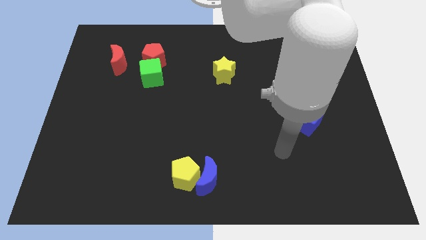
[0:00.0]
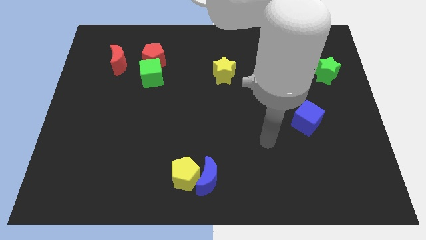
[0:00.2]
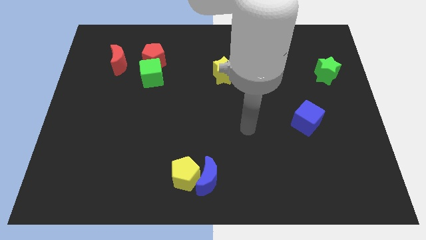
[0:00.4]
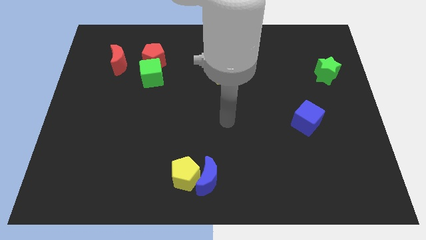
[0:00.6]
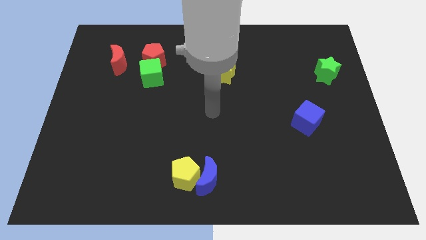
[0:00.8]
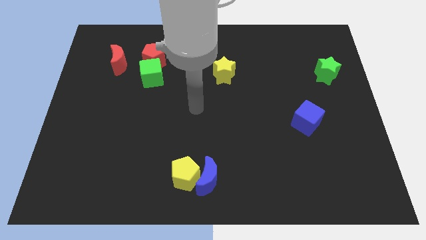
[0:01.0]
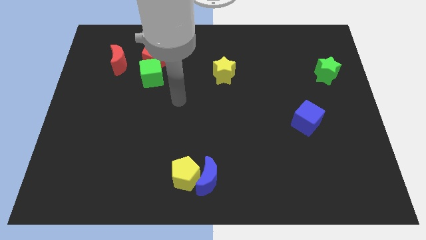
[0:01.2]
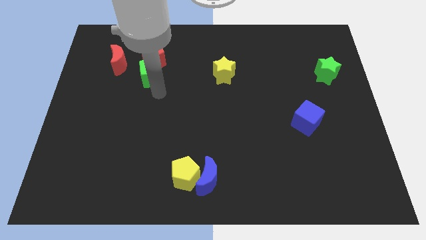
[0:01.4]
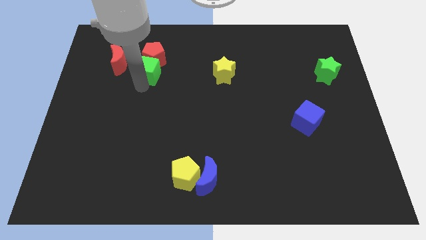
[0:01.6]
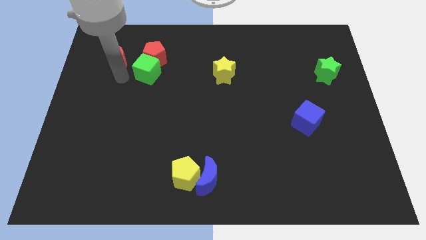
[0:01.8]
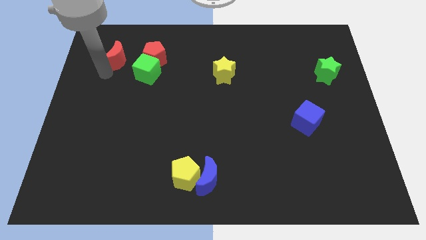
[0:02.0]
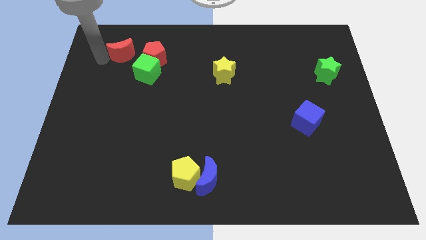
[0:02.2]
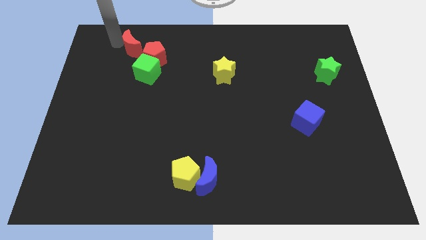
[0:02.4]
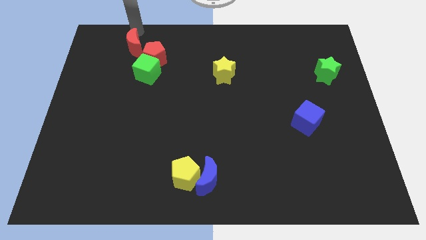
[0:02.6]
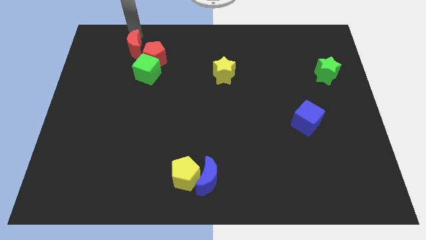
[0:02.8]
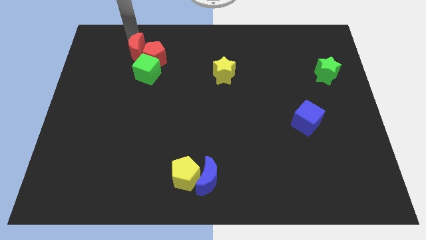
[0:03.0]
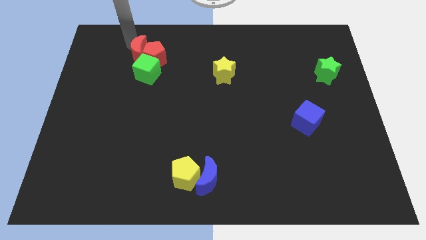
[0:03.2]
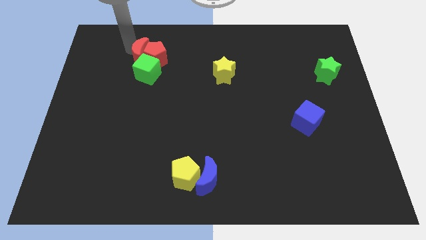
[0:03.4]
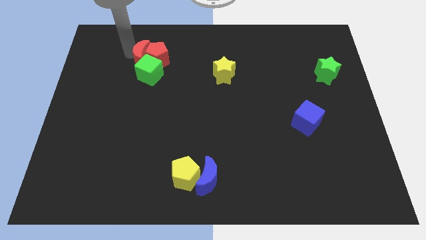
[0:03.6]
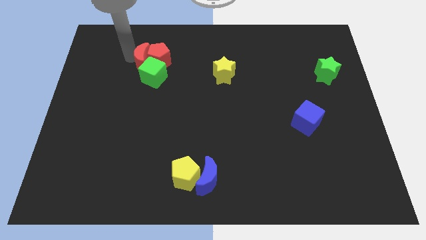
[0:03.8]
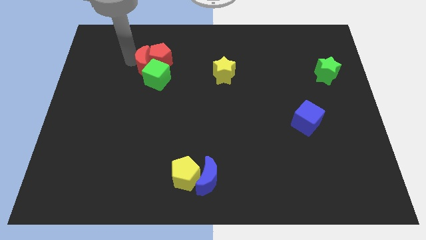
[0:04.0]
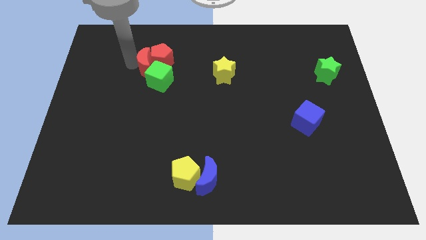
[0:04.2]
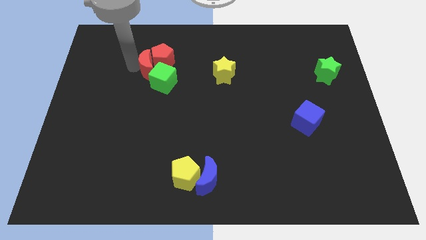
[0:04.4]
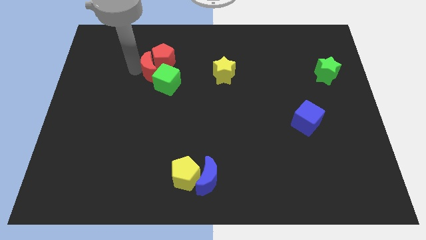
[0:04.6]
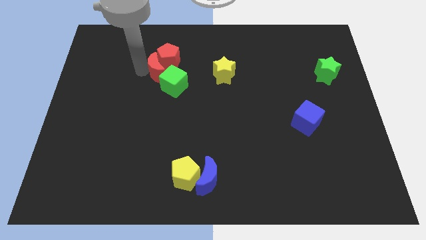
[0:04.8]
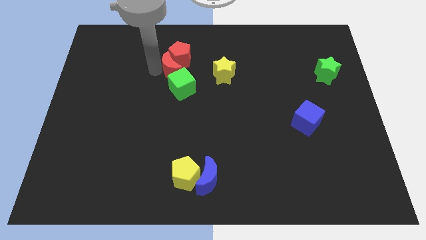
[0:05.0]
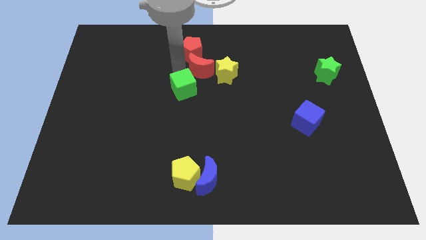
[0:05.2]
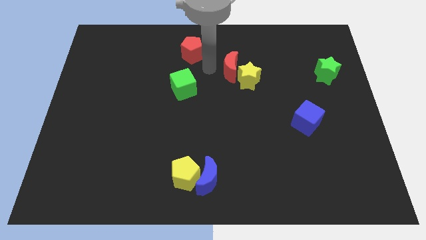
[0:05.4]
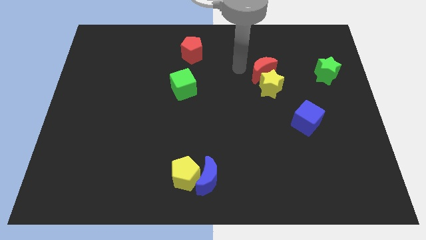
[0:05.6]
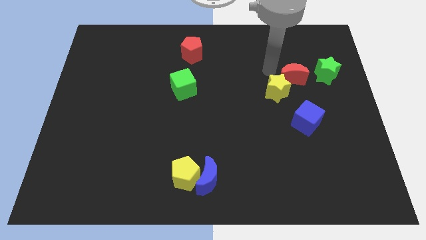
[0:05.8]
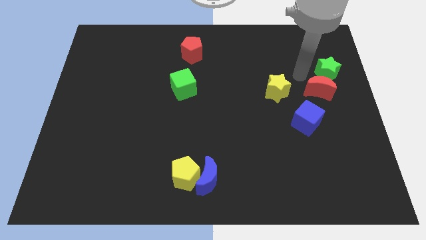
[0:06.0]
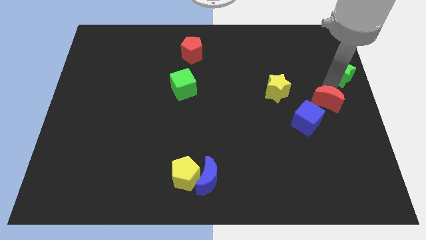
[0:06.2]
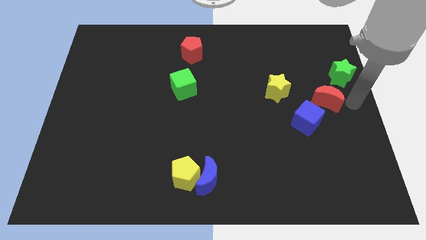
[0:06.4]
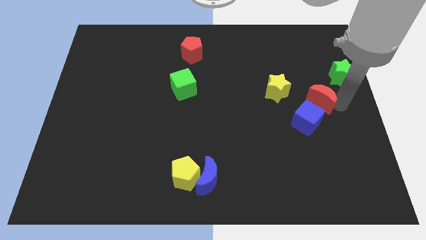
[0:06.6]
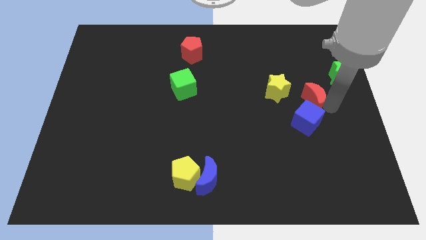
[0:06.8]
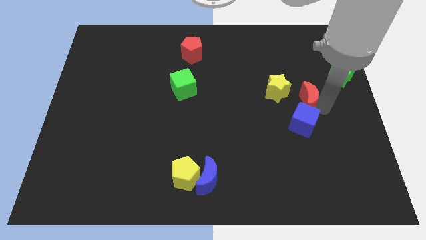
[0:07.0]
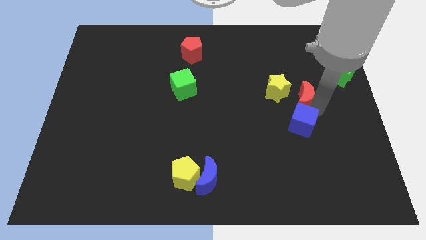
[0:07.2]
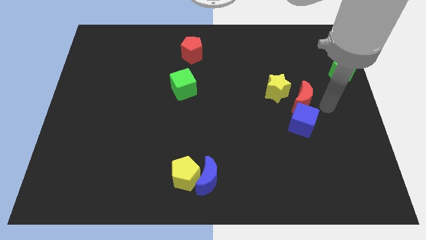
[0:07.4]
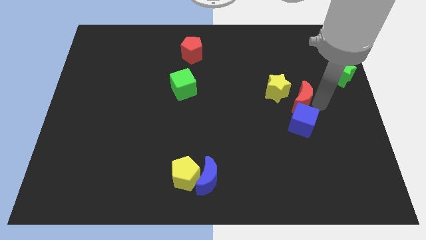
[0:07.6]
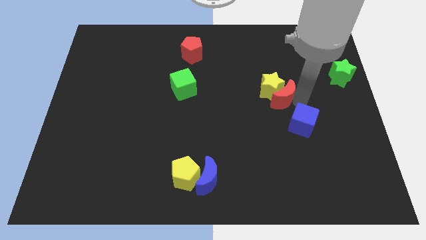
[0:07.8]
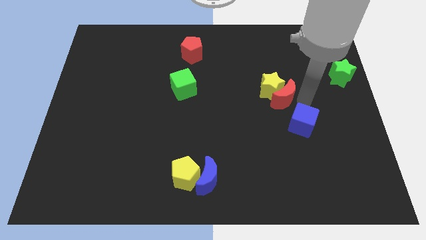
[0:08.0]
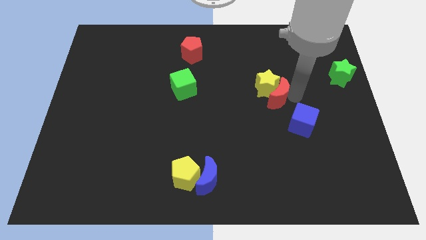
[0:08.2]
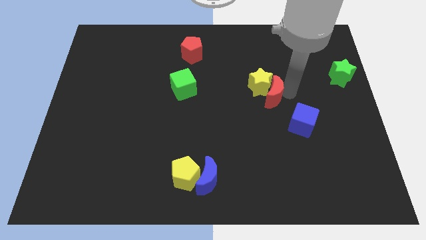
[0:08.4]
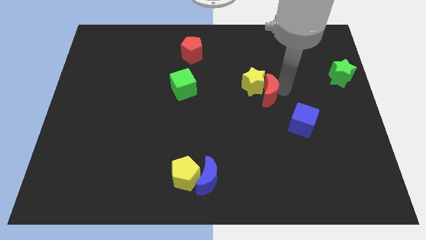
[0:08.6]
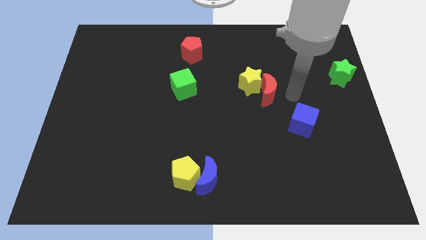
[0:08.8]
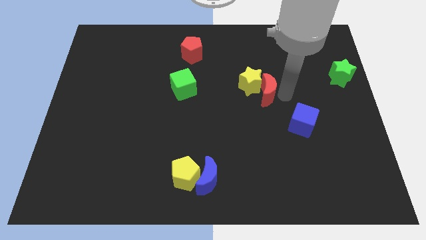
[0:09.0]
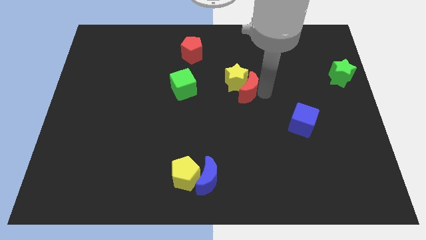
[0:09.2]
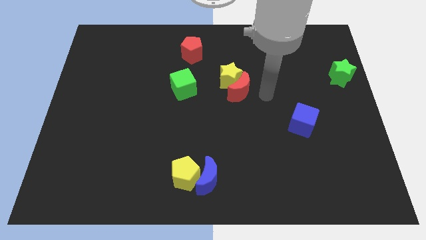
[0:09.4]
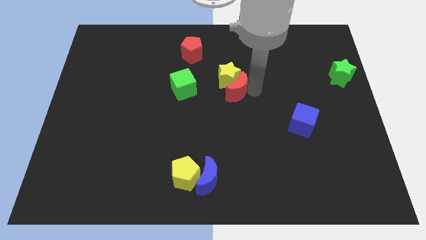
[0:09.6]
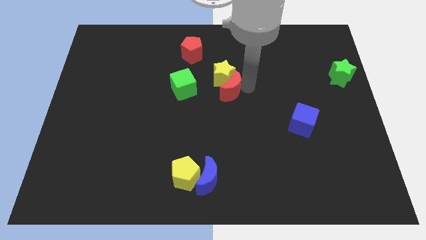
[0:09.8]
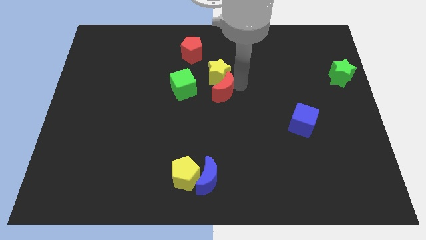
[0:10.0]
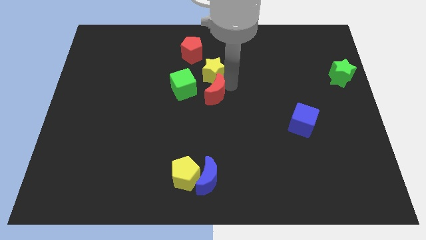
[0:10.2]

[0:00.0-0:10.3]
push the red moon downwards and to the right

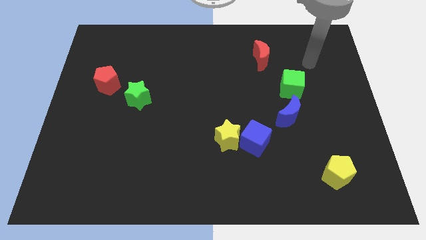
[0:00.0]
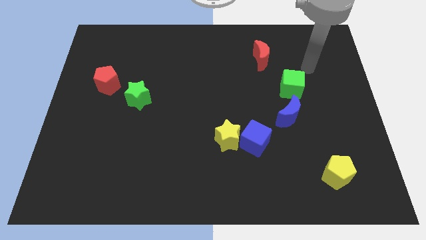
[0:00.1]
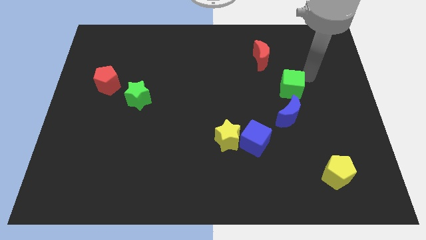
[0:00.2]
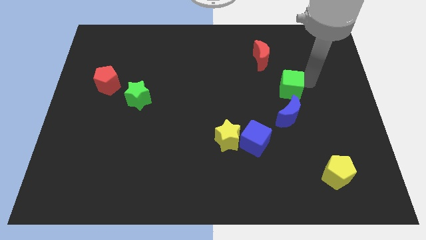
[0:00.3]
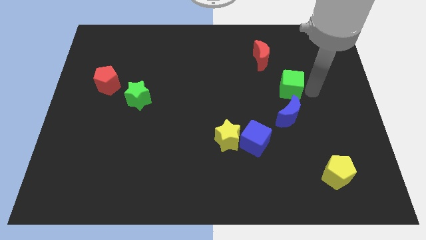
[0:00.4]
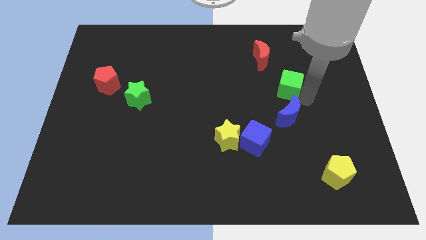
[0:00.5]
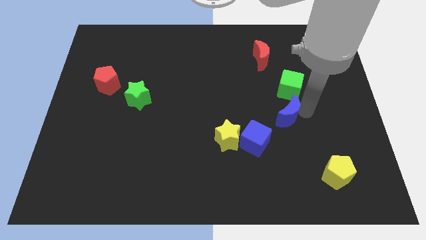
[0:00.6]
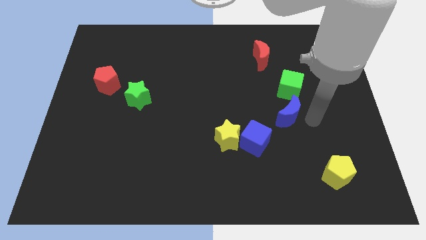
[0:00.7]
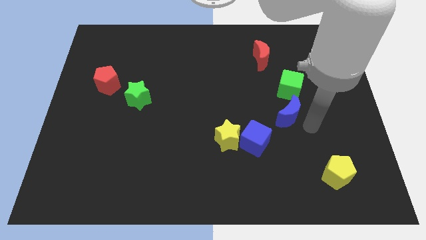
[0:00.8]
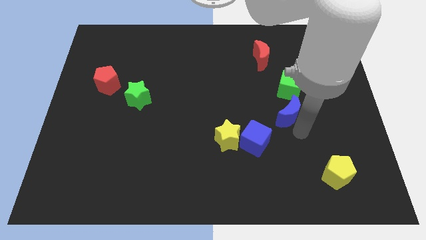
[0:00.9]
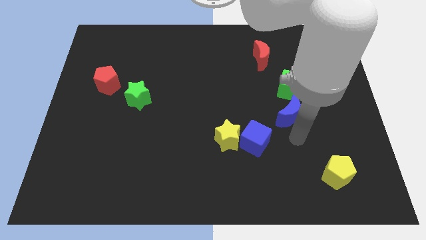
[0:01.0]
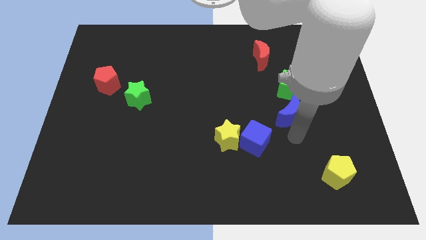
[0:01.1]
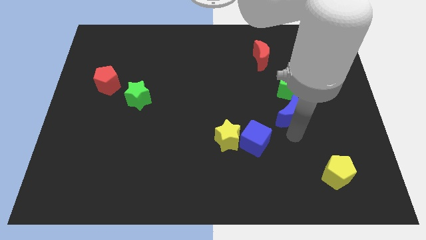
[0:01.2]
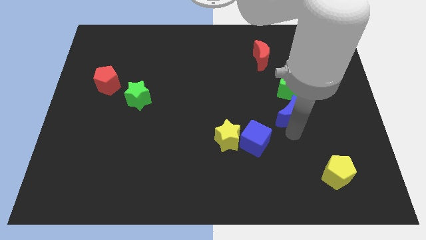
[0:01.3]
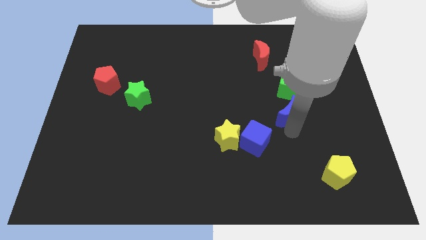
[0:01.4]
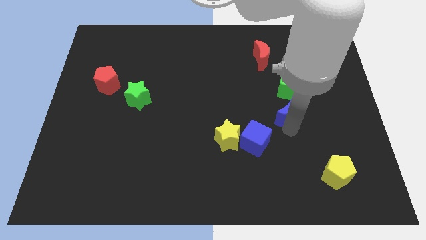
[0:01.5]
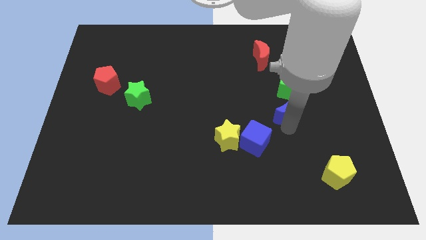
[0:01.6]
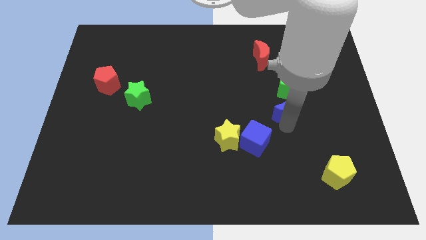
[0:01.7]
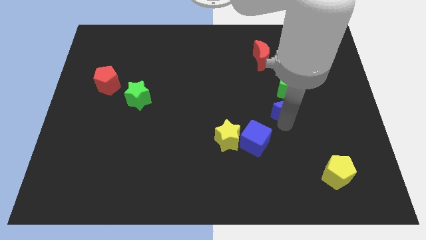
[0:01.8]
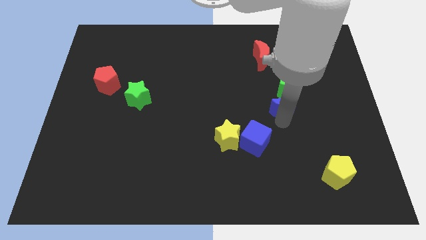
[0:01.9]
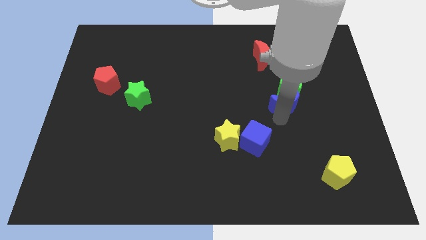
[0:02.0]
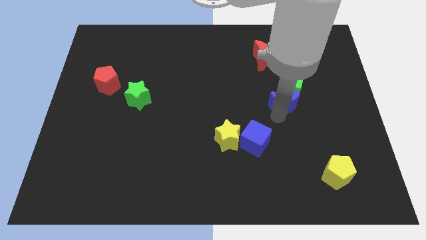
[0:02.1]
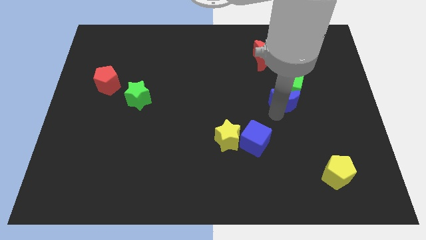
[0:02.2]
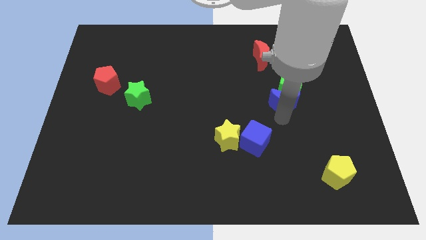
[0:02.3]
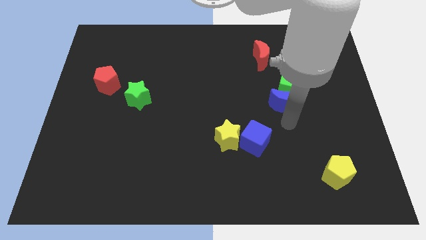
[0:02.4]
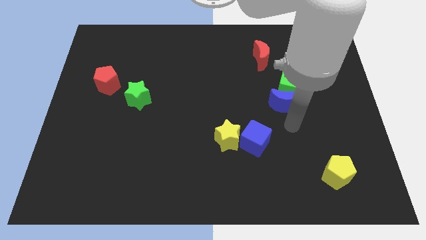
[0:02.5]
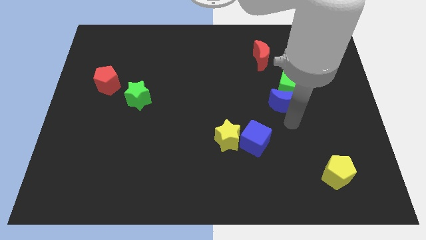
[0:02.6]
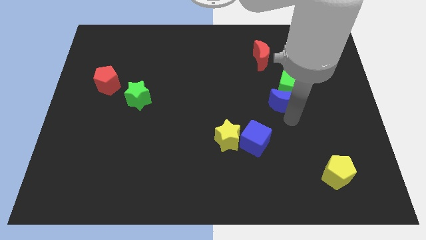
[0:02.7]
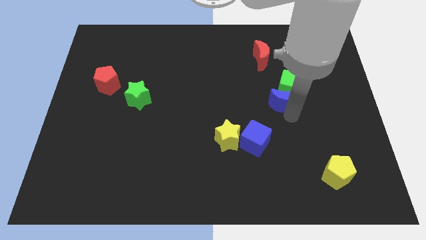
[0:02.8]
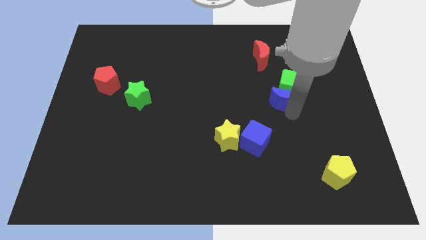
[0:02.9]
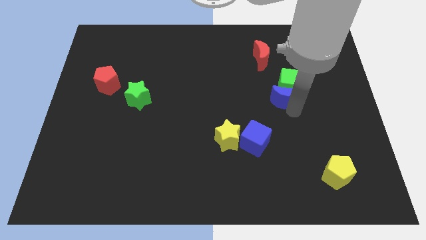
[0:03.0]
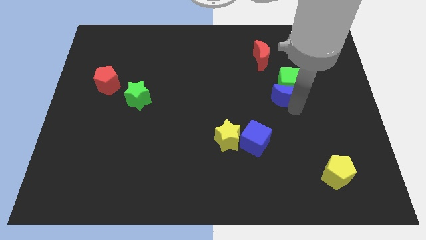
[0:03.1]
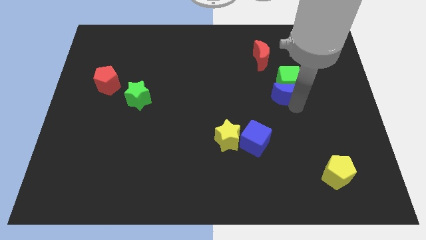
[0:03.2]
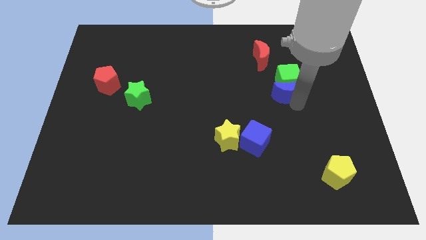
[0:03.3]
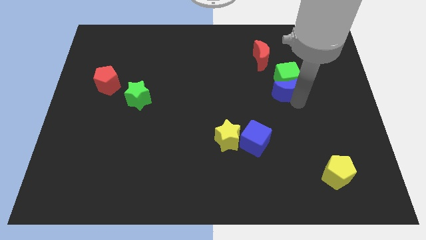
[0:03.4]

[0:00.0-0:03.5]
slide the blue moon up a little
